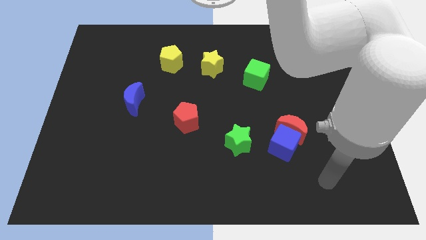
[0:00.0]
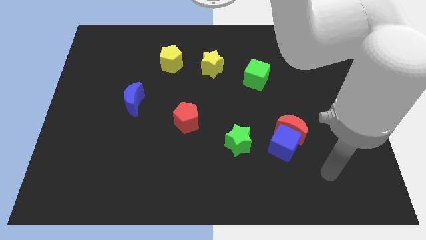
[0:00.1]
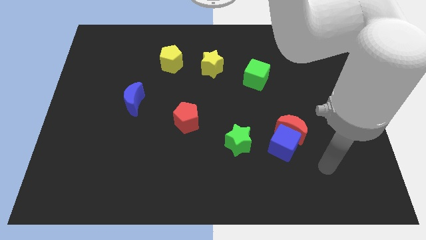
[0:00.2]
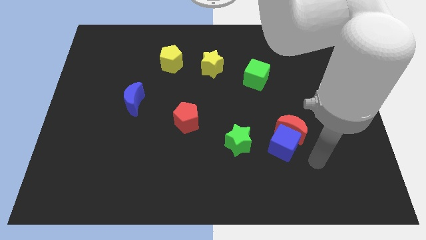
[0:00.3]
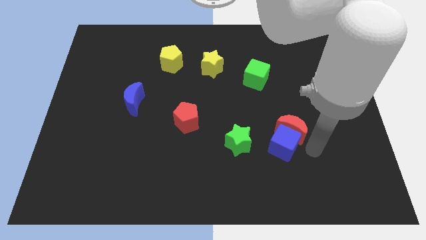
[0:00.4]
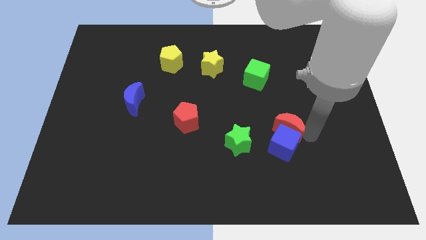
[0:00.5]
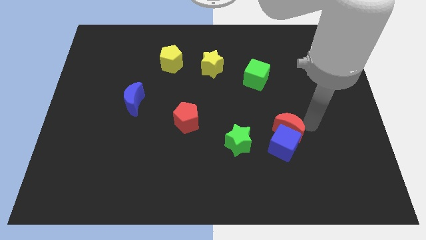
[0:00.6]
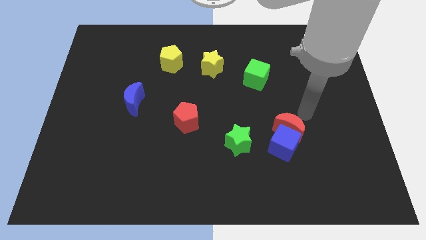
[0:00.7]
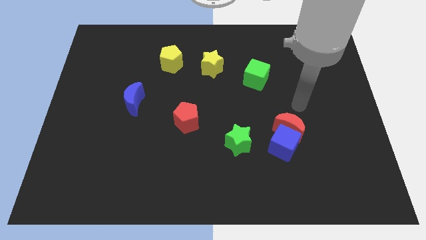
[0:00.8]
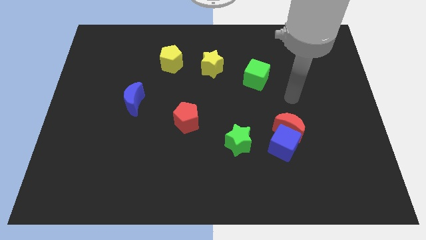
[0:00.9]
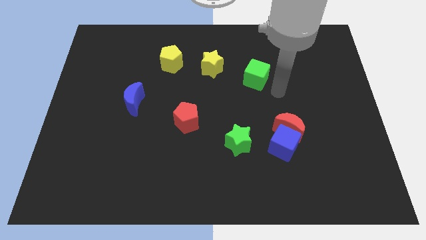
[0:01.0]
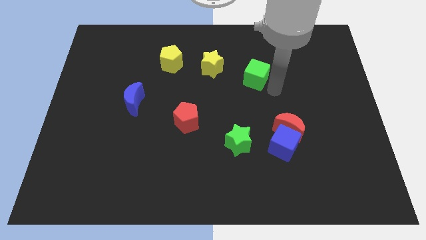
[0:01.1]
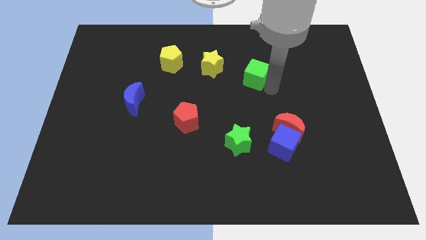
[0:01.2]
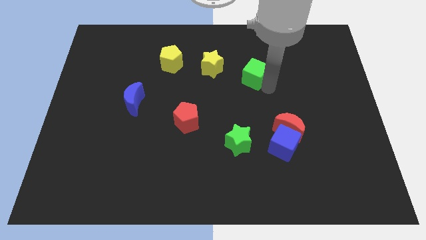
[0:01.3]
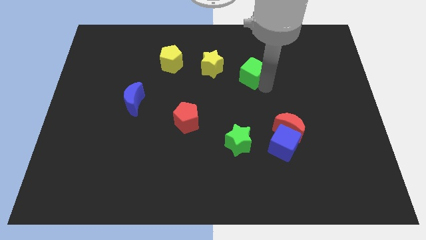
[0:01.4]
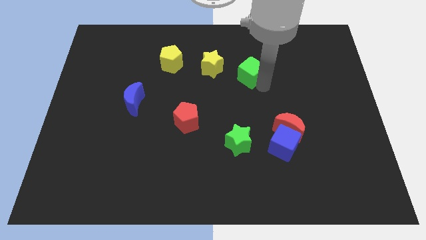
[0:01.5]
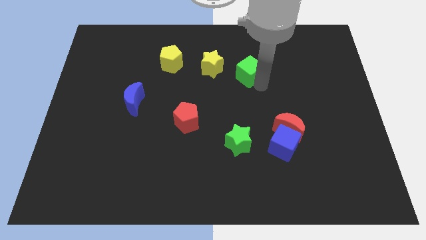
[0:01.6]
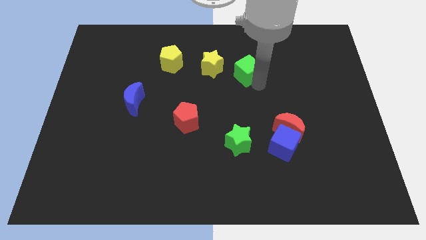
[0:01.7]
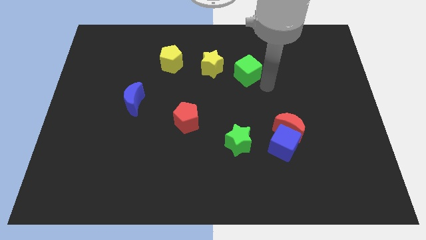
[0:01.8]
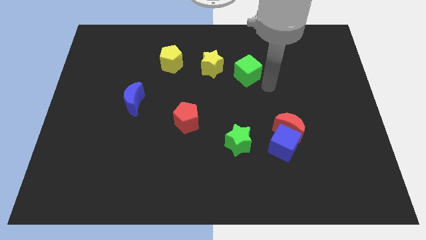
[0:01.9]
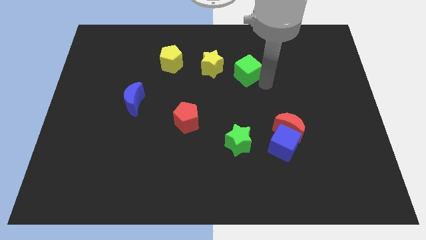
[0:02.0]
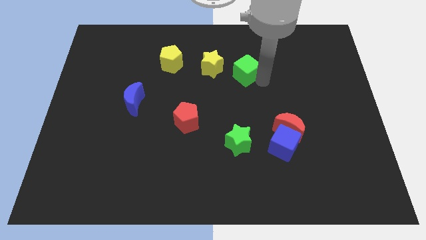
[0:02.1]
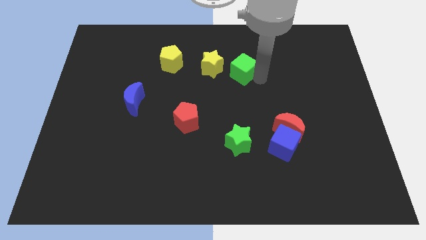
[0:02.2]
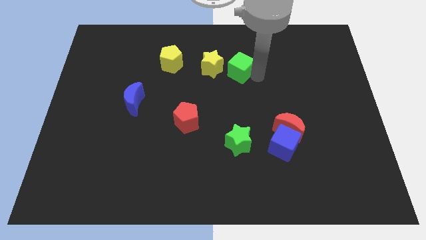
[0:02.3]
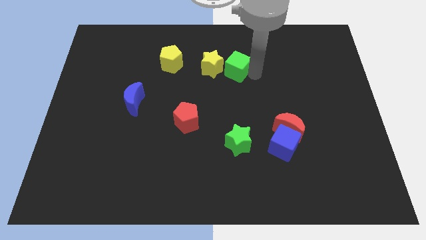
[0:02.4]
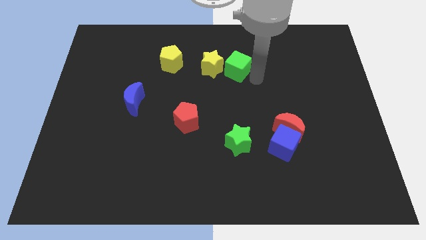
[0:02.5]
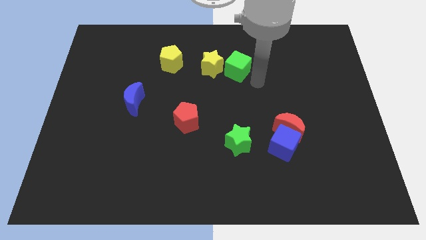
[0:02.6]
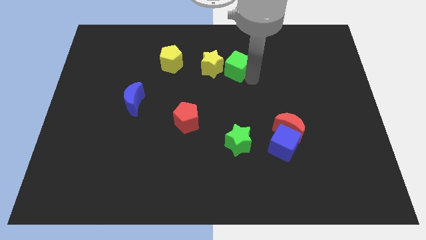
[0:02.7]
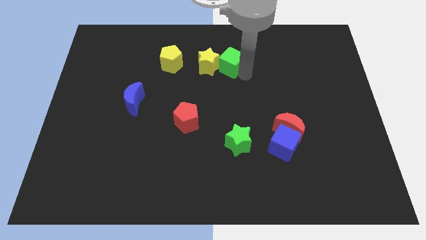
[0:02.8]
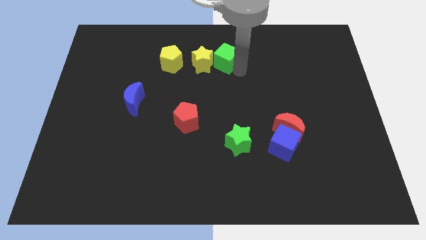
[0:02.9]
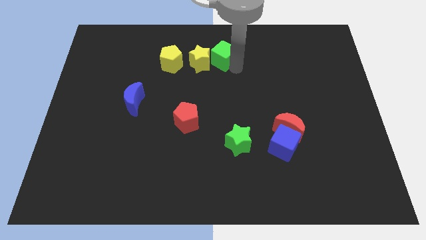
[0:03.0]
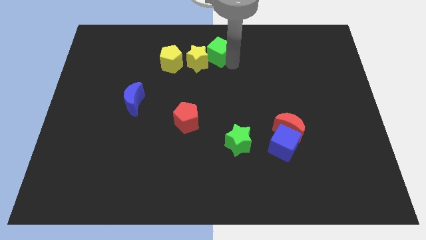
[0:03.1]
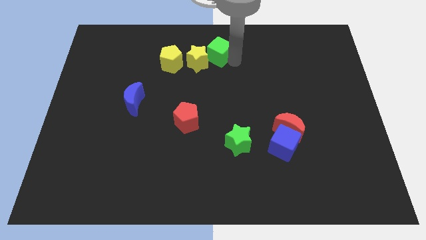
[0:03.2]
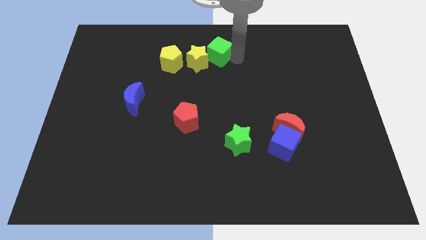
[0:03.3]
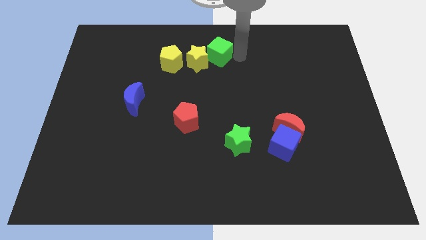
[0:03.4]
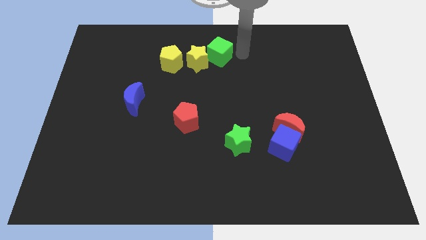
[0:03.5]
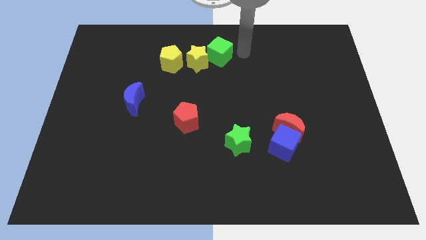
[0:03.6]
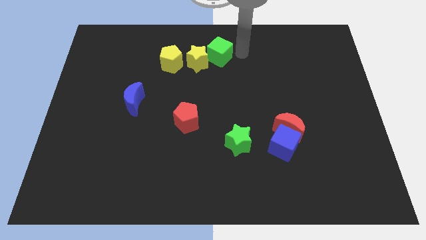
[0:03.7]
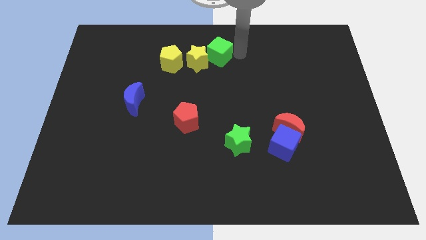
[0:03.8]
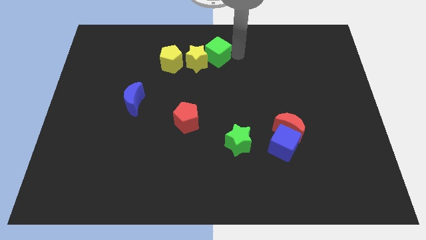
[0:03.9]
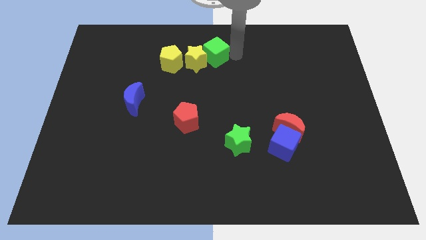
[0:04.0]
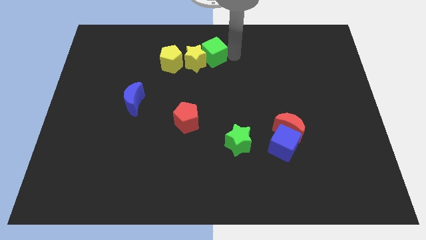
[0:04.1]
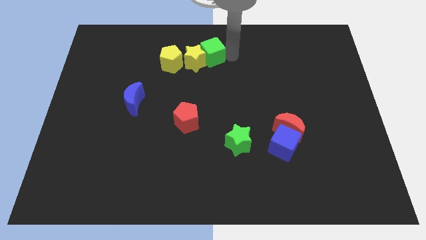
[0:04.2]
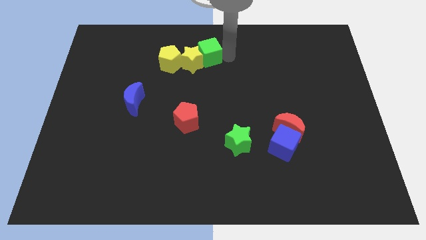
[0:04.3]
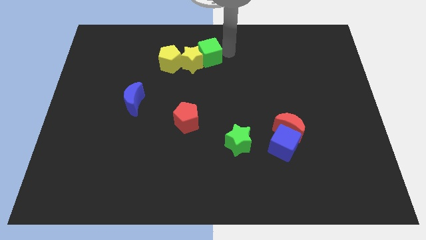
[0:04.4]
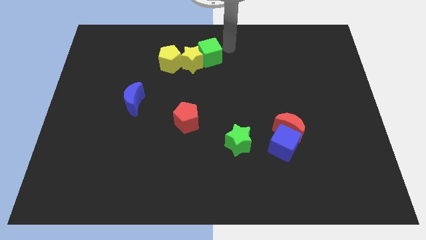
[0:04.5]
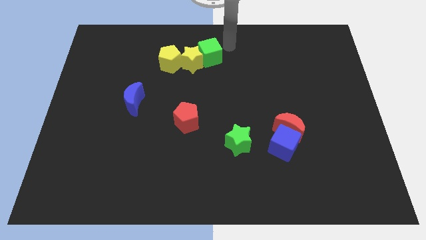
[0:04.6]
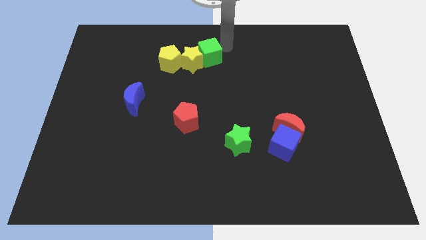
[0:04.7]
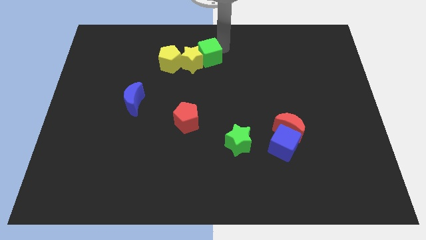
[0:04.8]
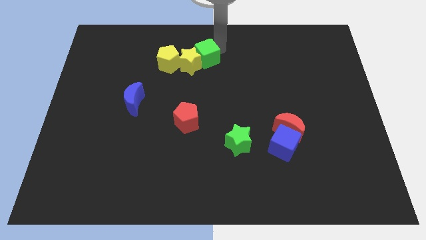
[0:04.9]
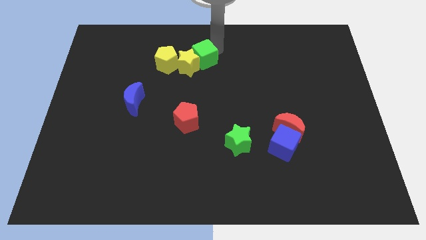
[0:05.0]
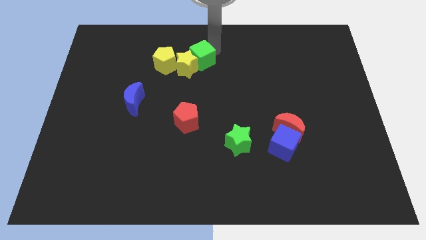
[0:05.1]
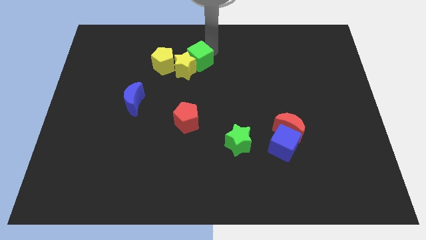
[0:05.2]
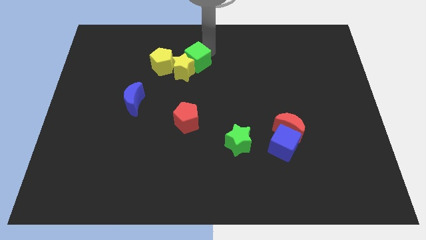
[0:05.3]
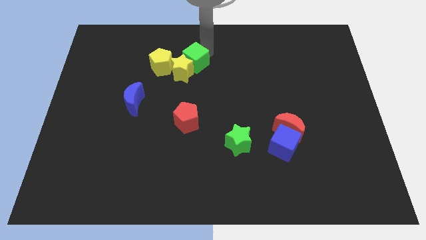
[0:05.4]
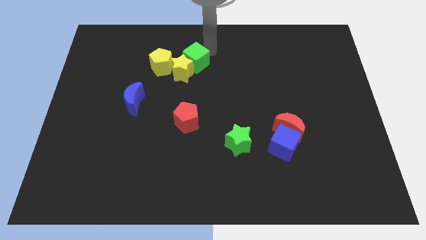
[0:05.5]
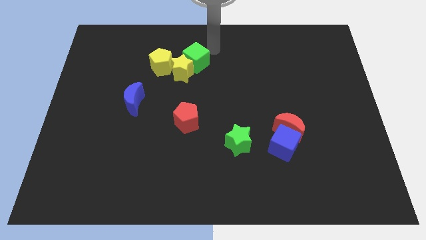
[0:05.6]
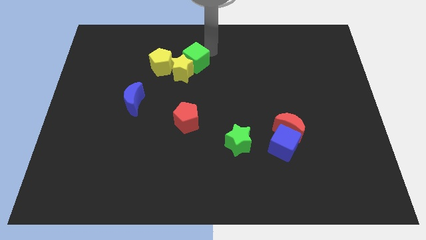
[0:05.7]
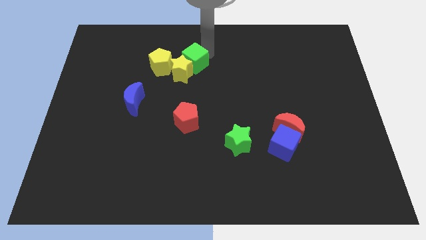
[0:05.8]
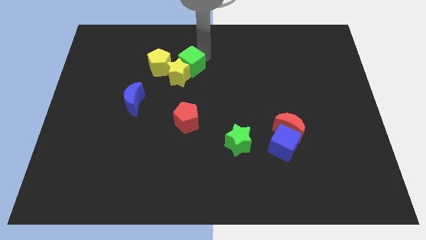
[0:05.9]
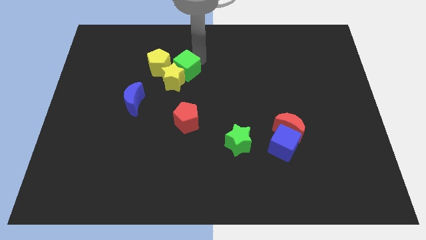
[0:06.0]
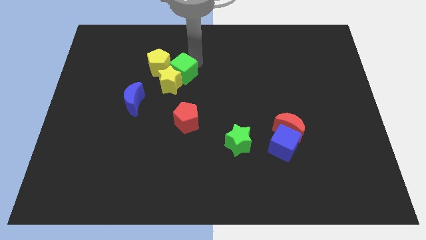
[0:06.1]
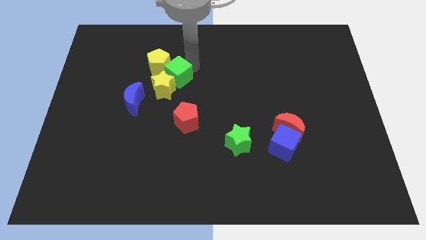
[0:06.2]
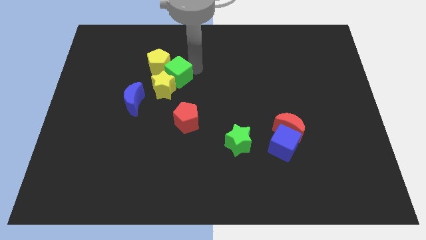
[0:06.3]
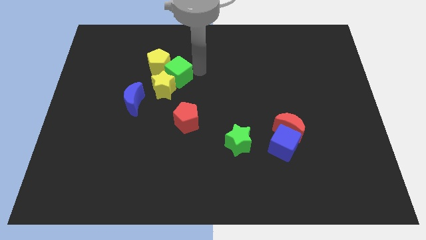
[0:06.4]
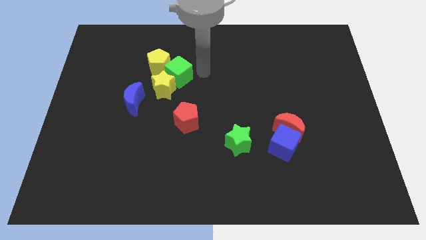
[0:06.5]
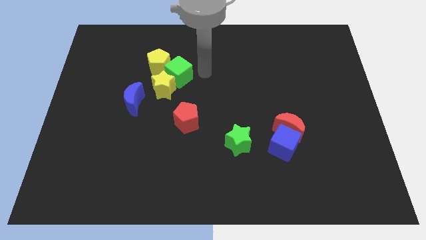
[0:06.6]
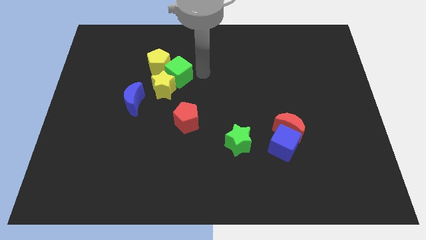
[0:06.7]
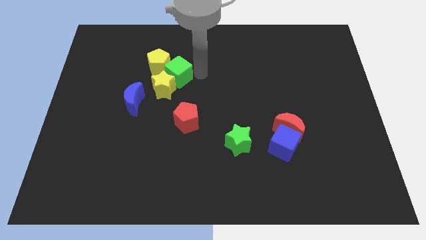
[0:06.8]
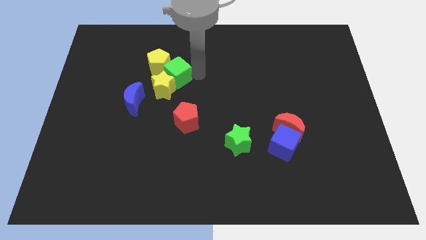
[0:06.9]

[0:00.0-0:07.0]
push the green cube left

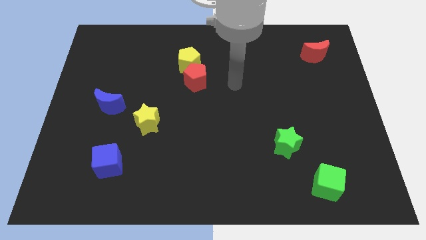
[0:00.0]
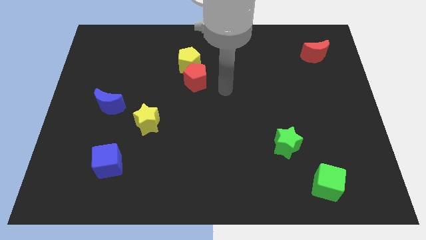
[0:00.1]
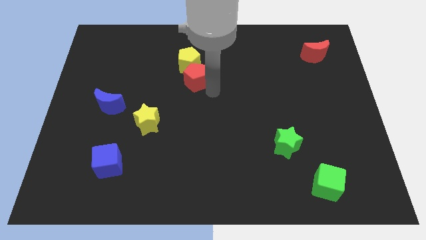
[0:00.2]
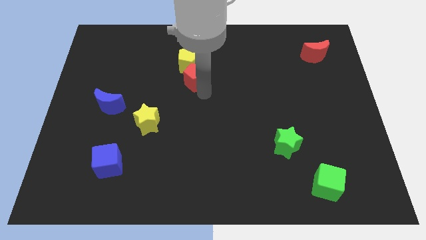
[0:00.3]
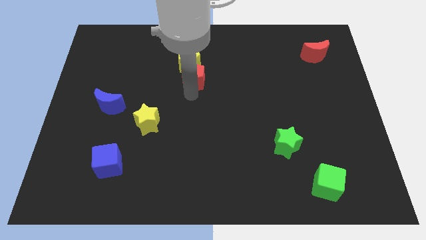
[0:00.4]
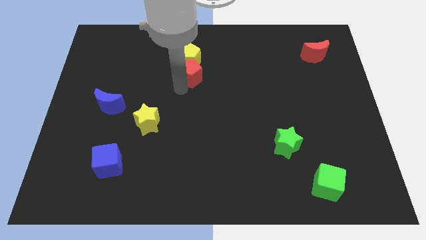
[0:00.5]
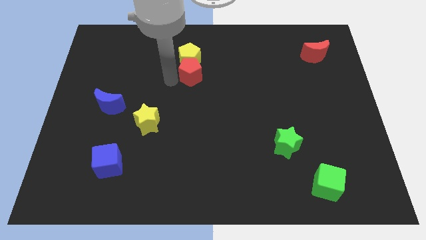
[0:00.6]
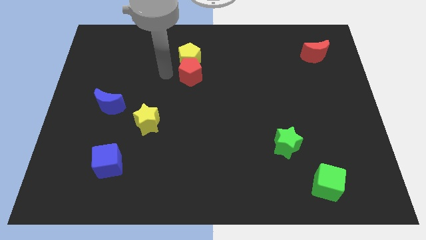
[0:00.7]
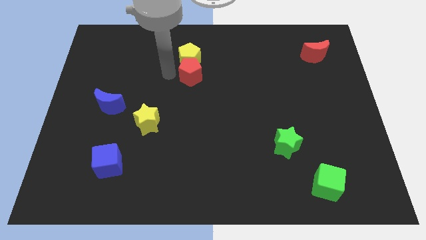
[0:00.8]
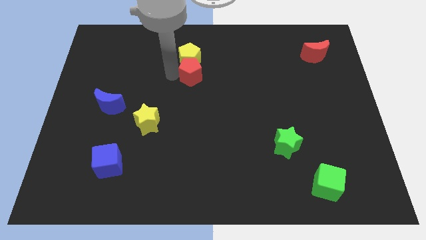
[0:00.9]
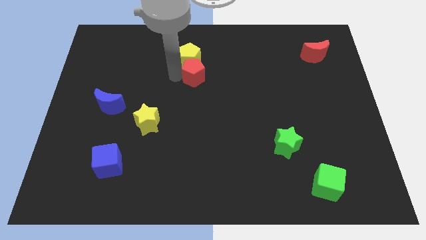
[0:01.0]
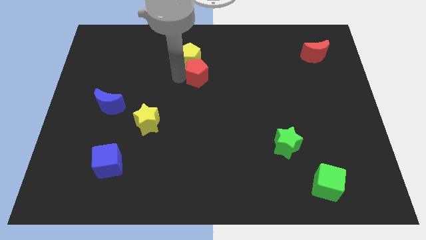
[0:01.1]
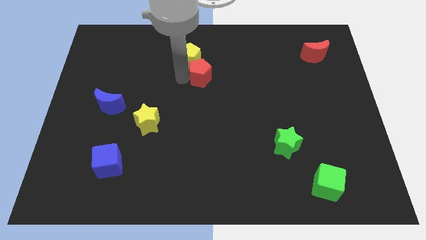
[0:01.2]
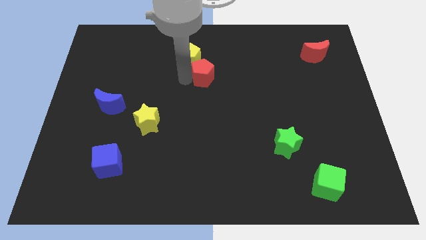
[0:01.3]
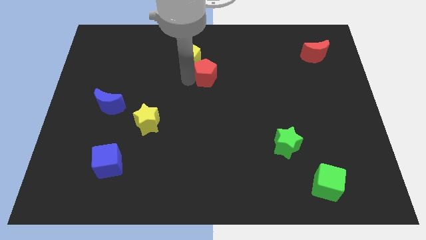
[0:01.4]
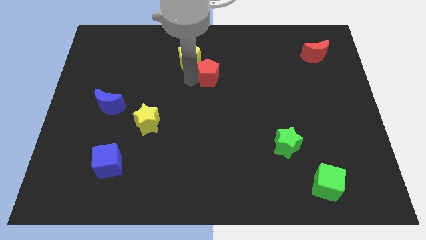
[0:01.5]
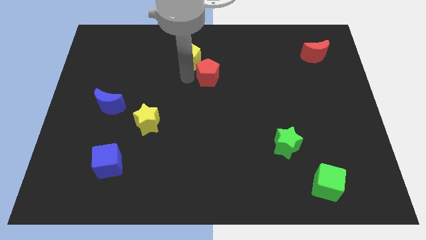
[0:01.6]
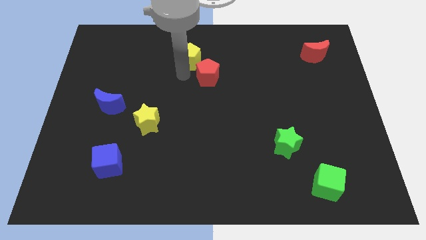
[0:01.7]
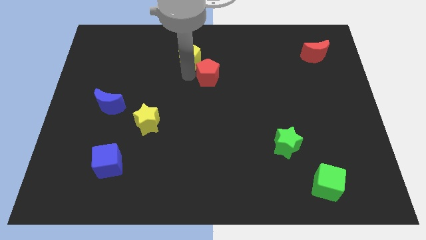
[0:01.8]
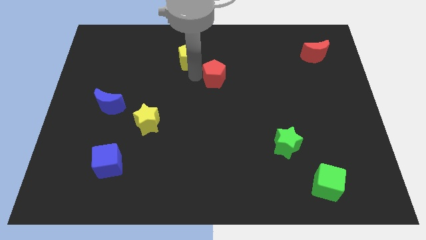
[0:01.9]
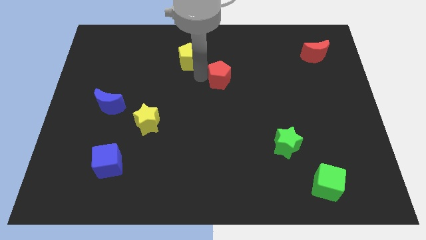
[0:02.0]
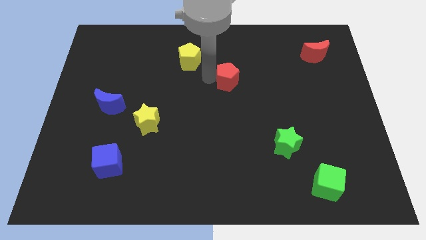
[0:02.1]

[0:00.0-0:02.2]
move the red pentagon somewhat right
